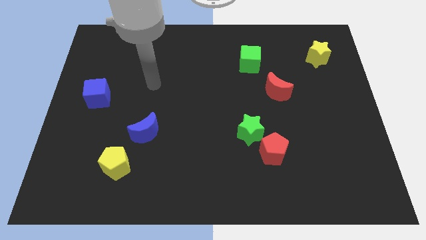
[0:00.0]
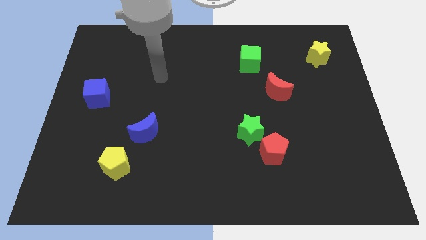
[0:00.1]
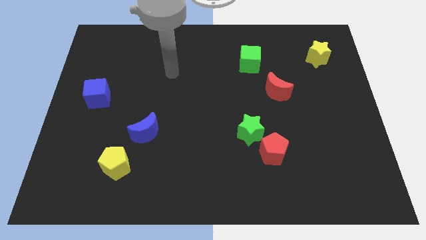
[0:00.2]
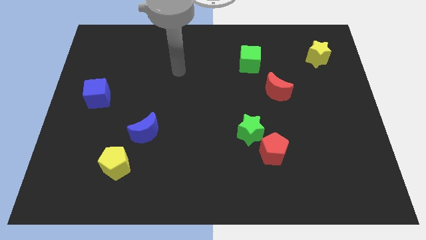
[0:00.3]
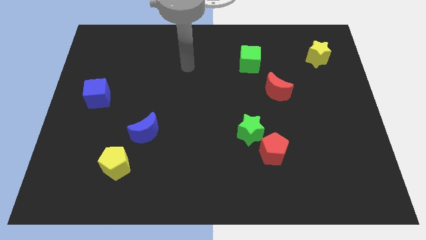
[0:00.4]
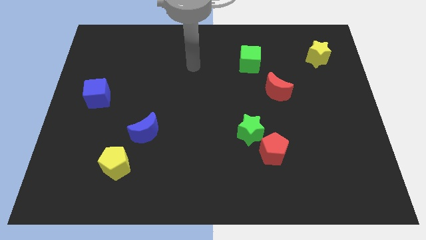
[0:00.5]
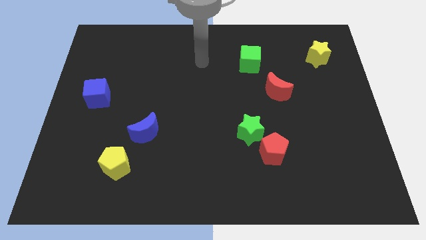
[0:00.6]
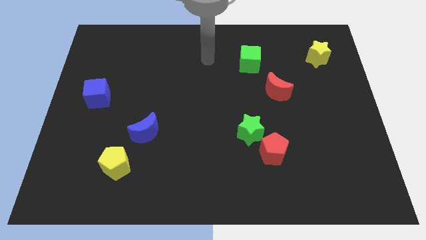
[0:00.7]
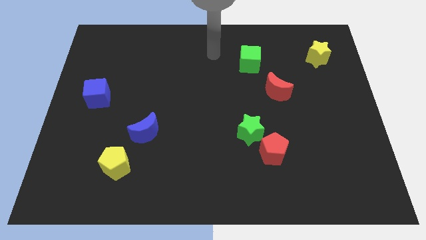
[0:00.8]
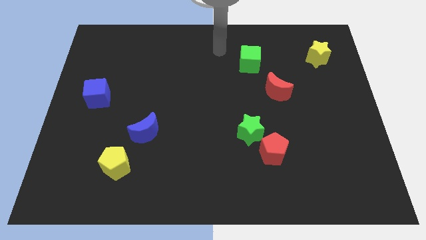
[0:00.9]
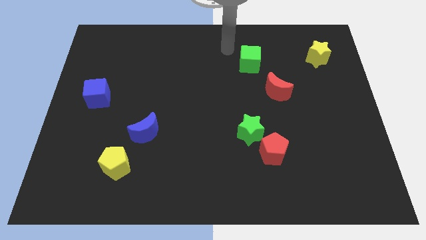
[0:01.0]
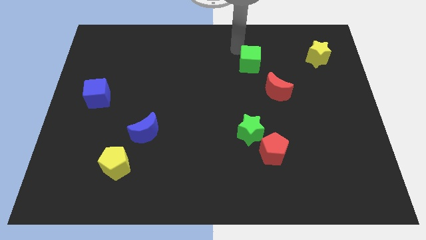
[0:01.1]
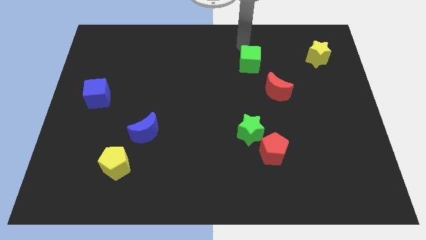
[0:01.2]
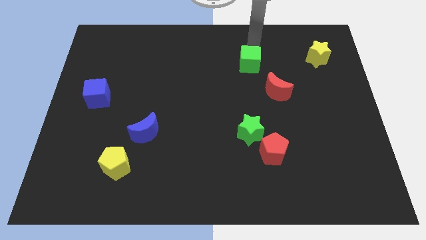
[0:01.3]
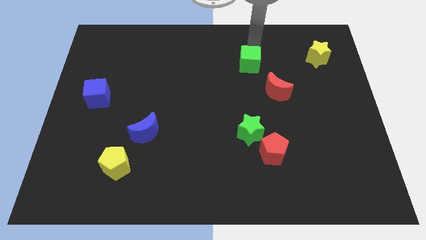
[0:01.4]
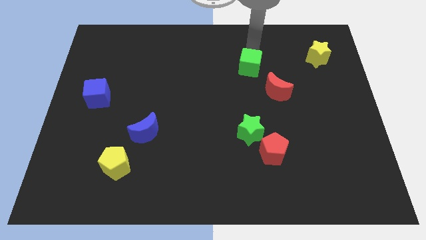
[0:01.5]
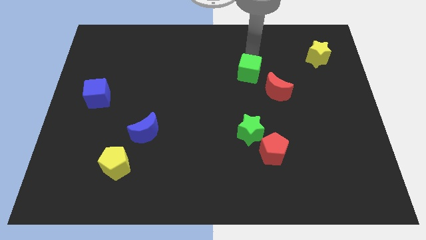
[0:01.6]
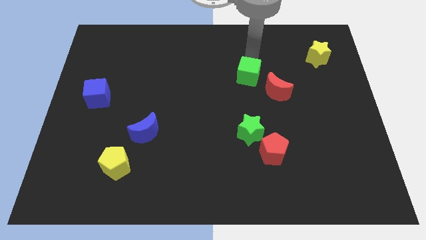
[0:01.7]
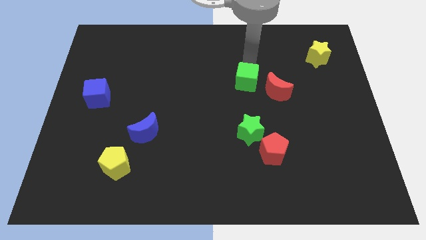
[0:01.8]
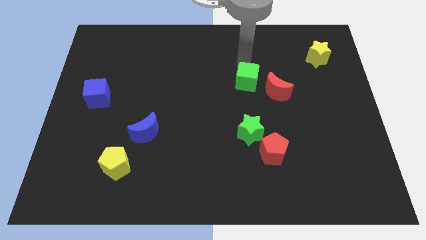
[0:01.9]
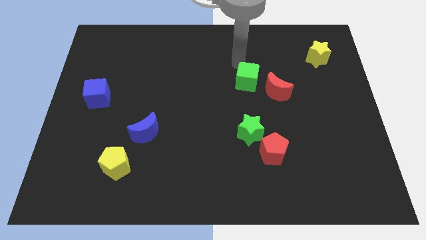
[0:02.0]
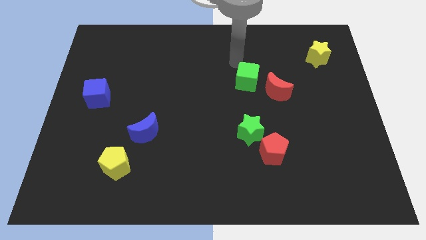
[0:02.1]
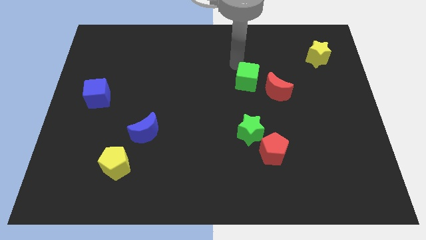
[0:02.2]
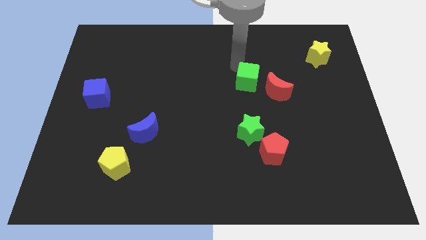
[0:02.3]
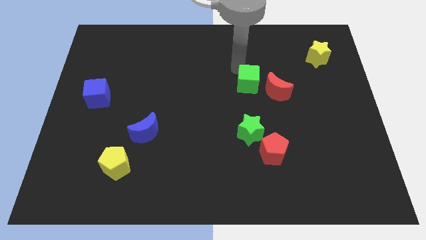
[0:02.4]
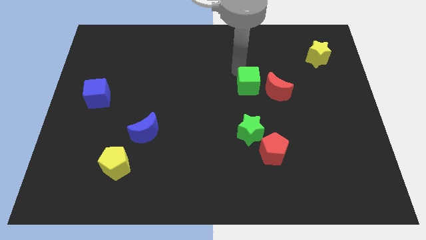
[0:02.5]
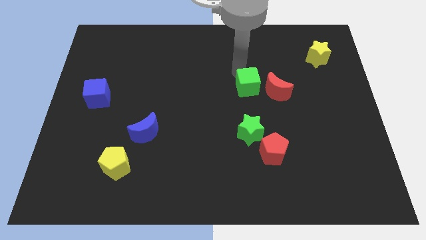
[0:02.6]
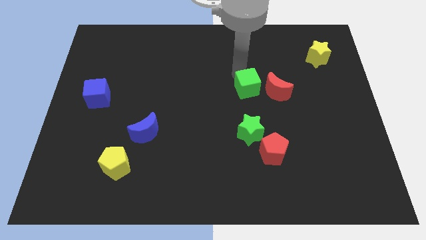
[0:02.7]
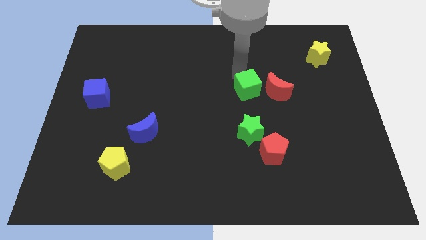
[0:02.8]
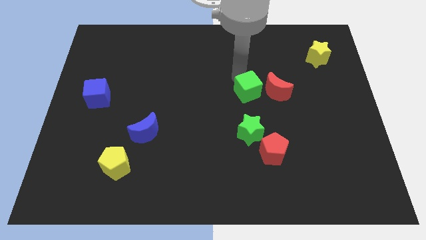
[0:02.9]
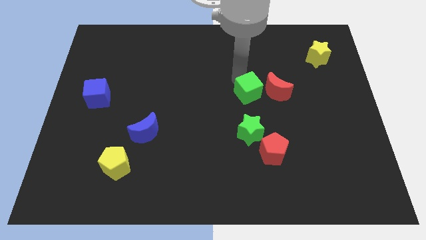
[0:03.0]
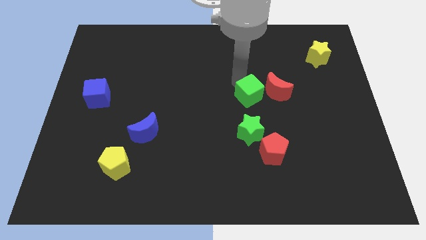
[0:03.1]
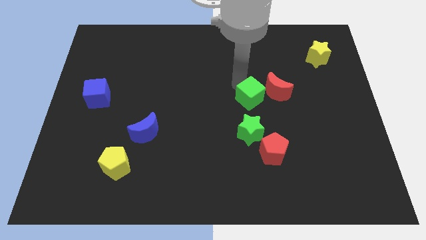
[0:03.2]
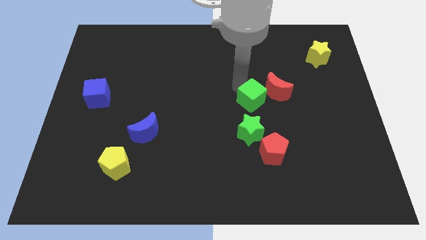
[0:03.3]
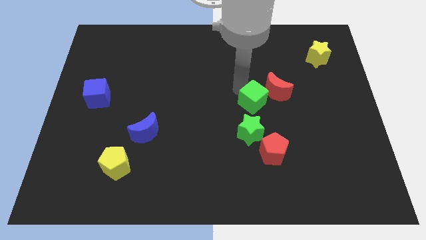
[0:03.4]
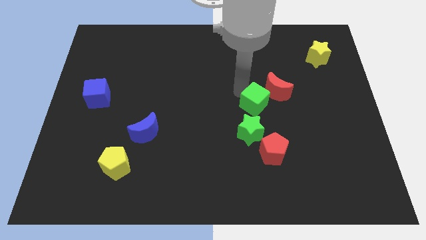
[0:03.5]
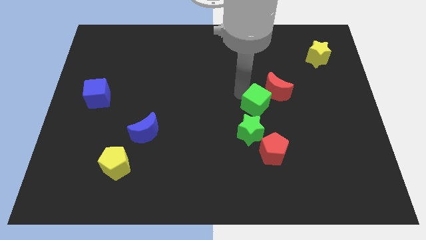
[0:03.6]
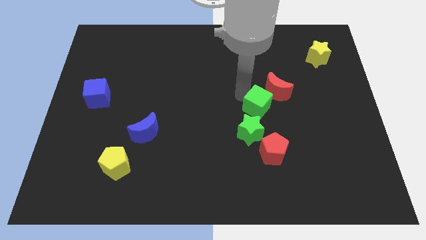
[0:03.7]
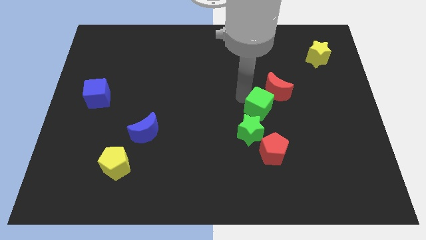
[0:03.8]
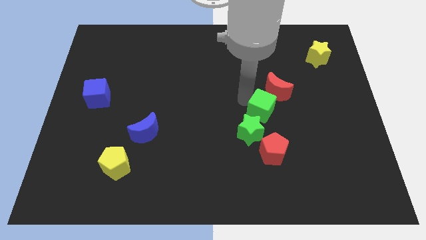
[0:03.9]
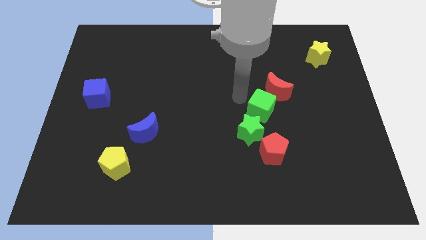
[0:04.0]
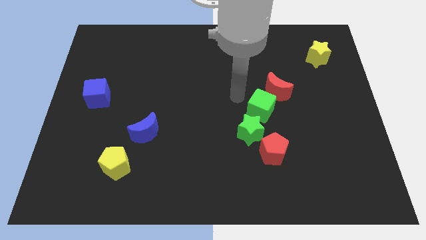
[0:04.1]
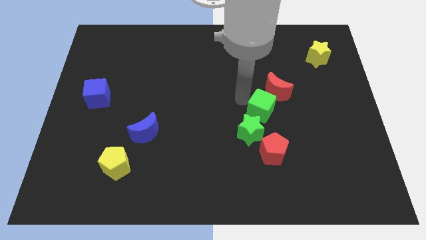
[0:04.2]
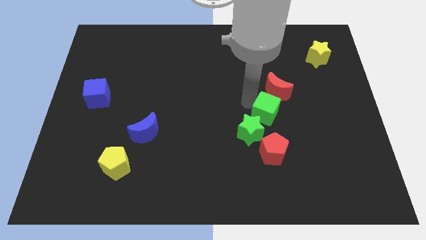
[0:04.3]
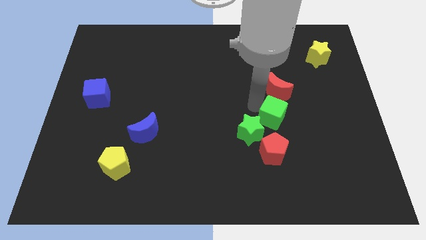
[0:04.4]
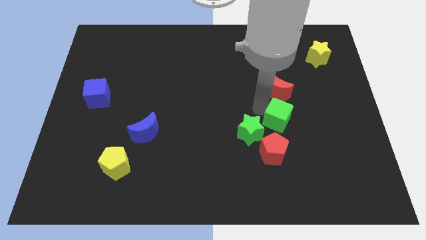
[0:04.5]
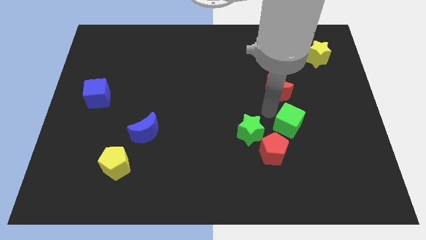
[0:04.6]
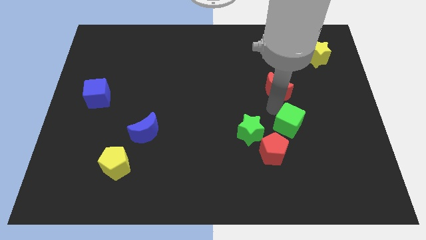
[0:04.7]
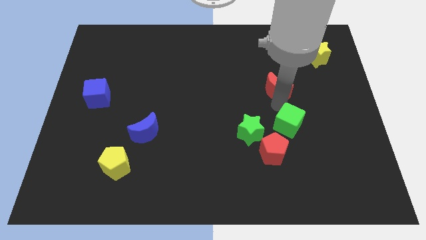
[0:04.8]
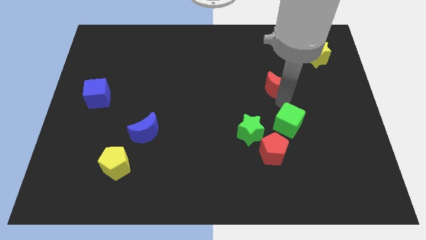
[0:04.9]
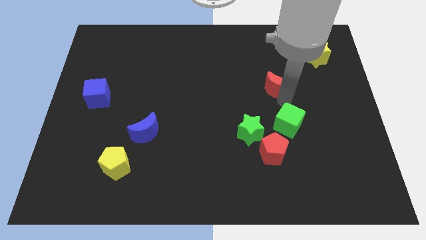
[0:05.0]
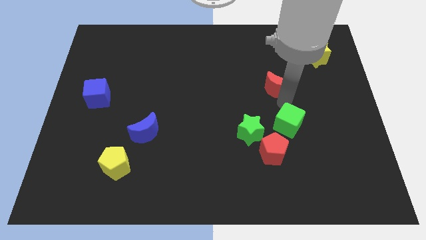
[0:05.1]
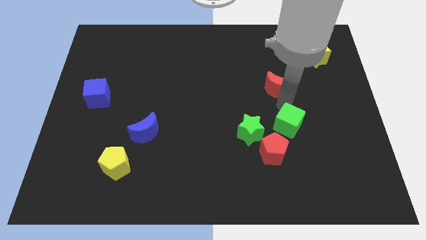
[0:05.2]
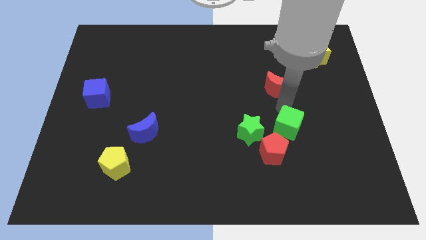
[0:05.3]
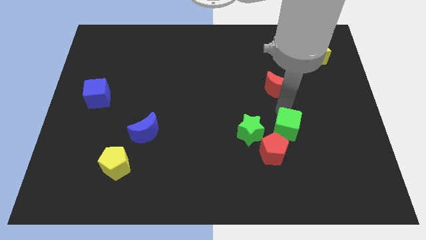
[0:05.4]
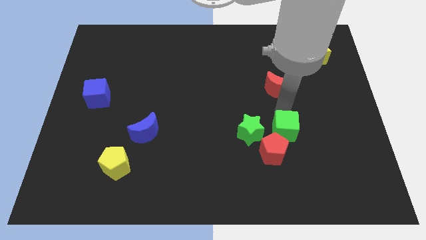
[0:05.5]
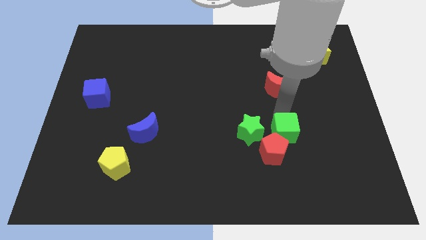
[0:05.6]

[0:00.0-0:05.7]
put the green cube close to the red pentagon
